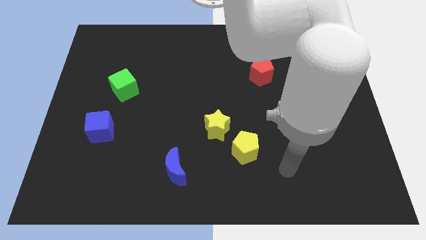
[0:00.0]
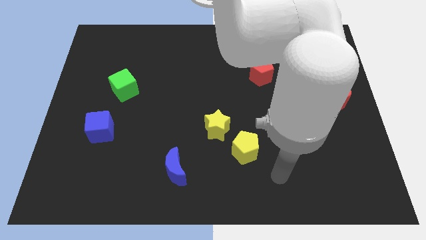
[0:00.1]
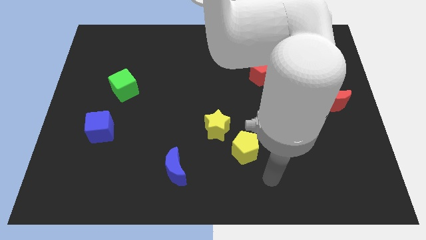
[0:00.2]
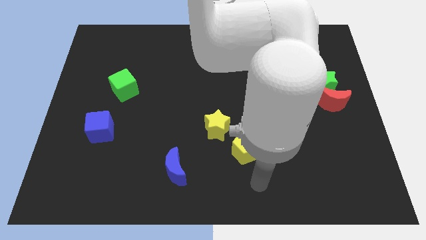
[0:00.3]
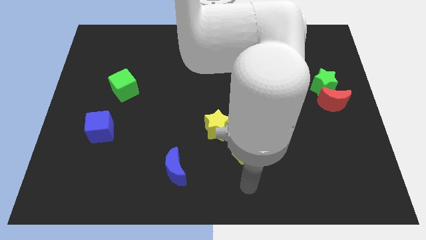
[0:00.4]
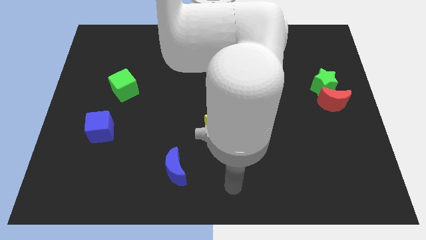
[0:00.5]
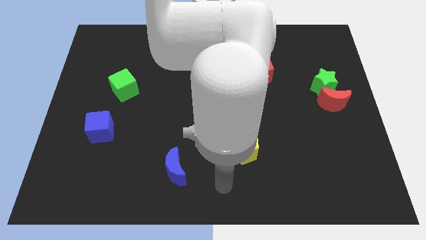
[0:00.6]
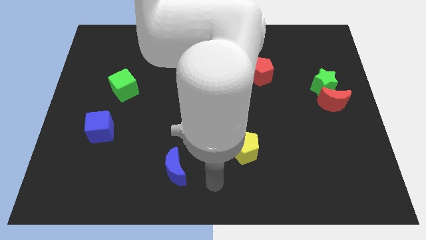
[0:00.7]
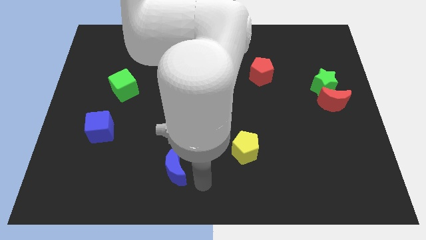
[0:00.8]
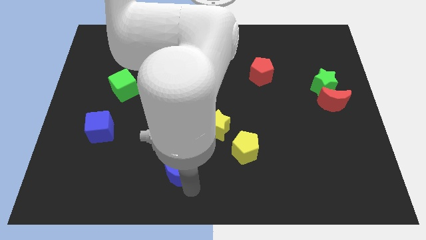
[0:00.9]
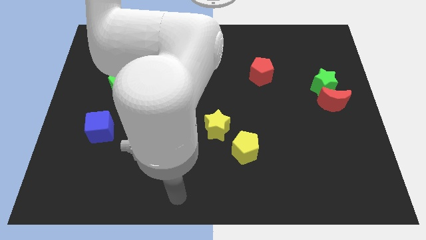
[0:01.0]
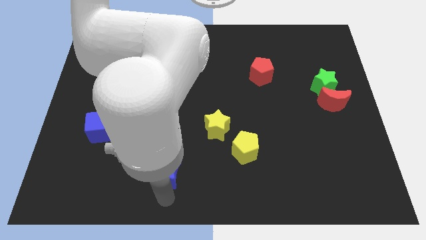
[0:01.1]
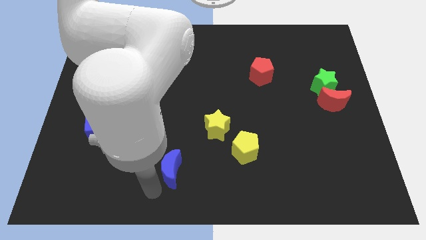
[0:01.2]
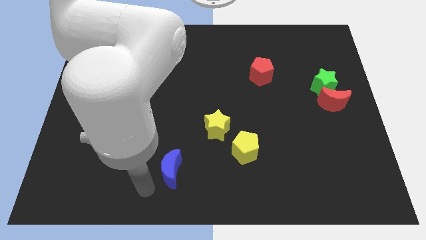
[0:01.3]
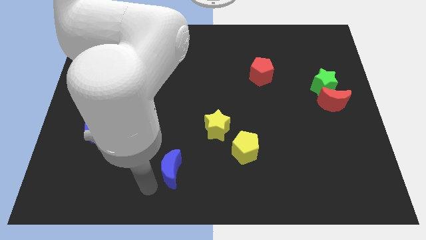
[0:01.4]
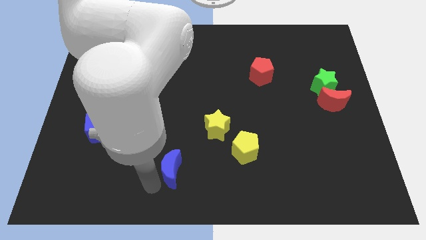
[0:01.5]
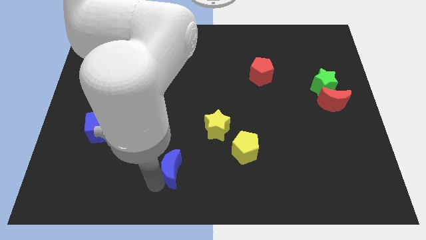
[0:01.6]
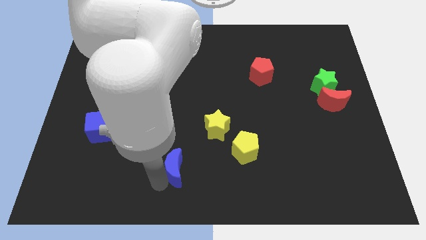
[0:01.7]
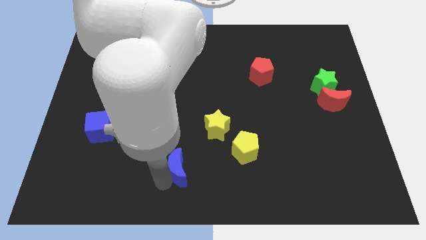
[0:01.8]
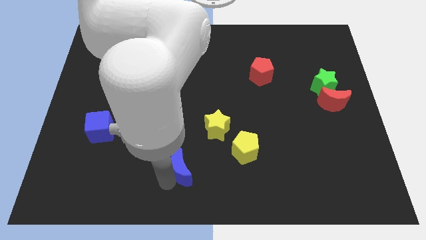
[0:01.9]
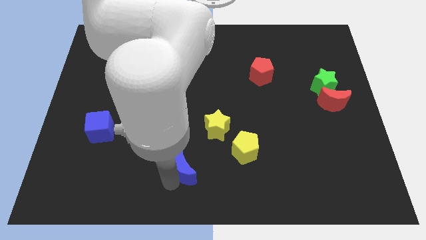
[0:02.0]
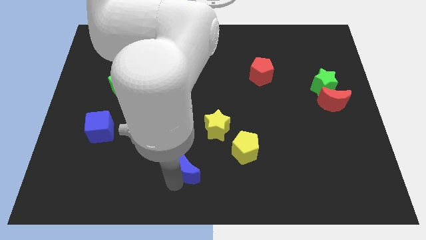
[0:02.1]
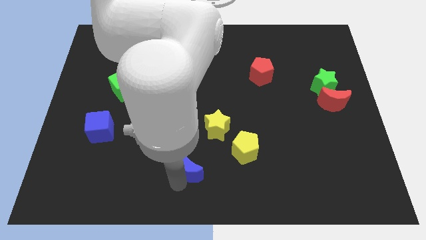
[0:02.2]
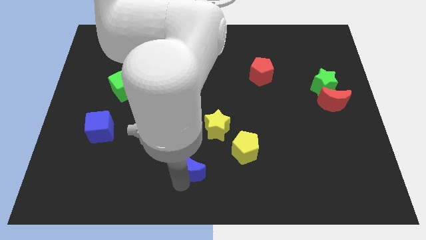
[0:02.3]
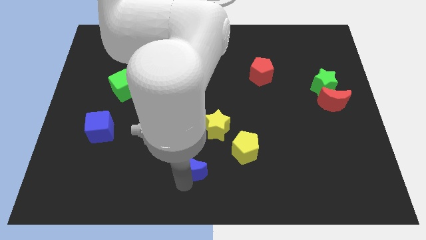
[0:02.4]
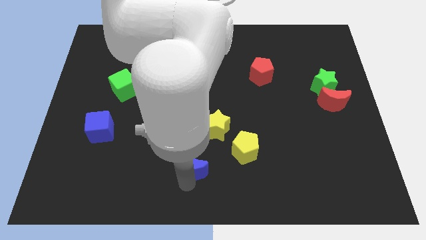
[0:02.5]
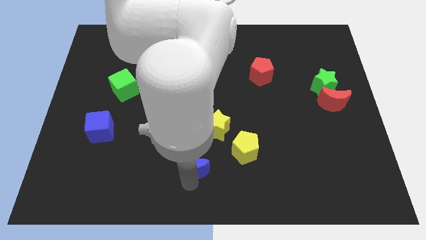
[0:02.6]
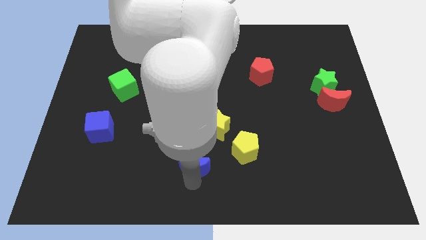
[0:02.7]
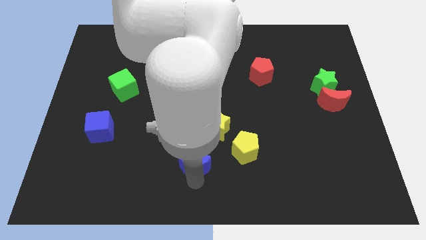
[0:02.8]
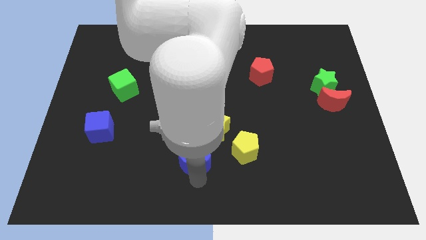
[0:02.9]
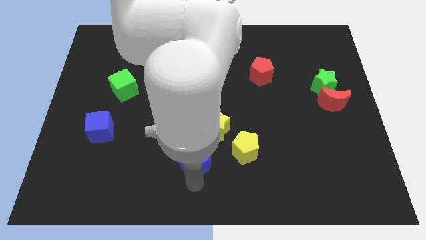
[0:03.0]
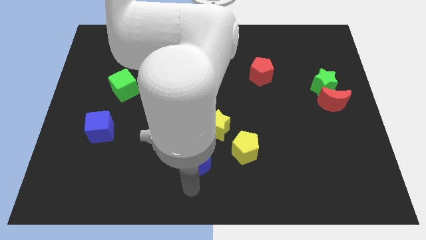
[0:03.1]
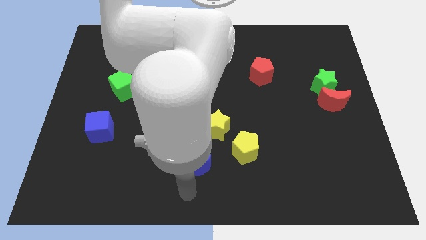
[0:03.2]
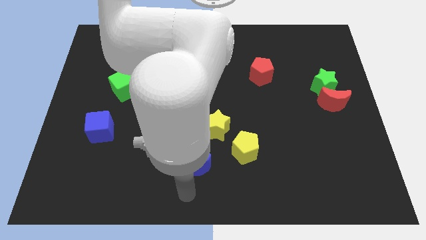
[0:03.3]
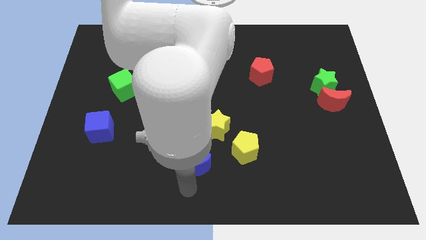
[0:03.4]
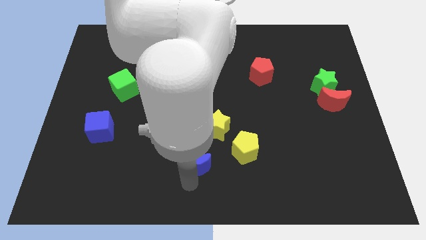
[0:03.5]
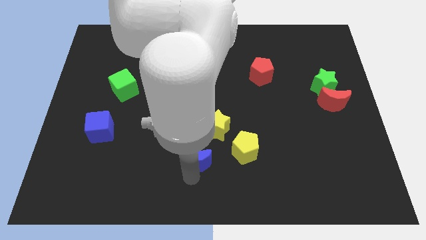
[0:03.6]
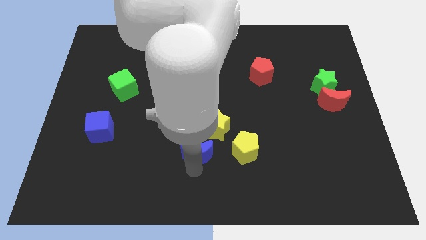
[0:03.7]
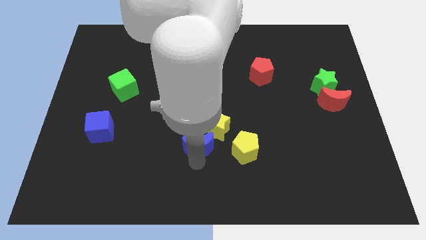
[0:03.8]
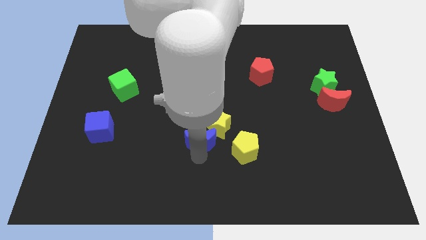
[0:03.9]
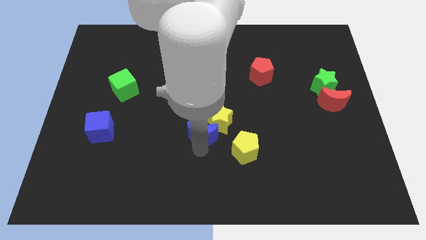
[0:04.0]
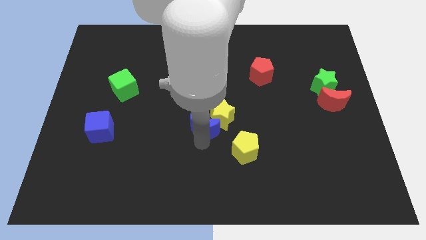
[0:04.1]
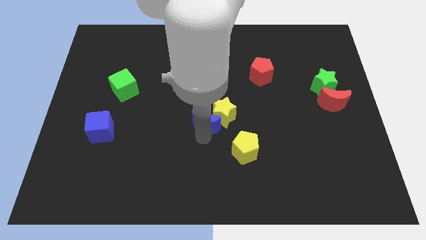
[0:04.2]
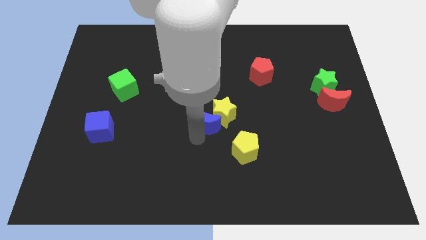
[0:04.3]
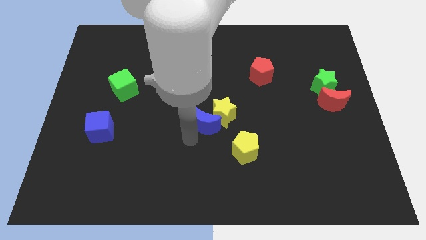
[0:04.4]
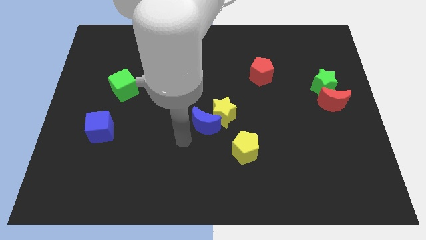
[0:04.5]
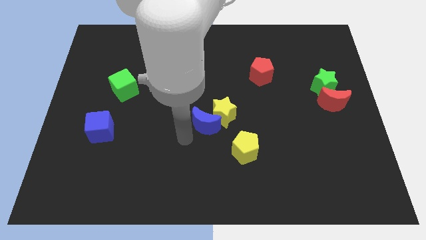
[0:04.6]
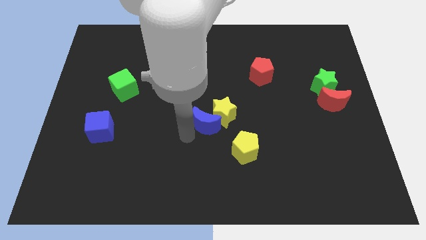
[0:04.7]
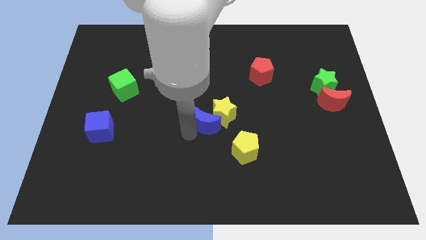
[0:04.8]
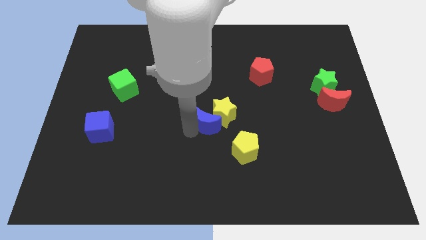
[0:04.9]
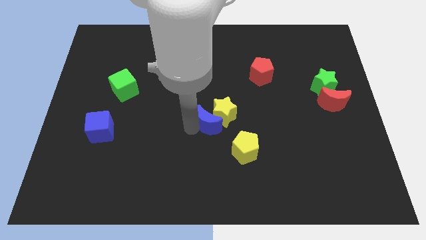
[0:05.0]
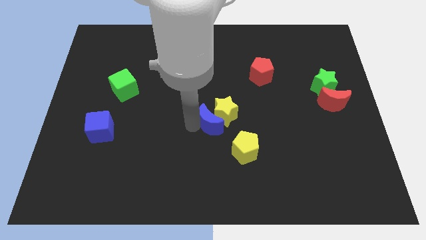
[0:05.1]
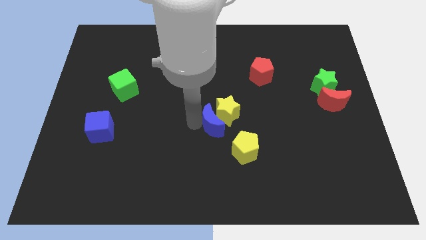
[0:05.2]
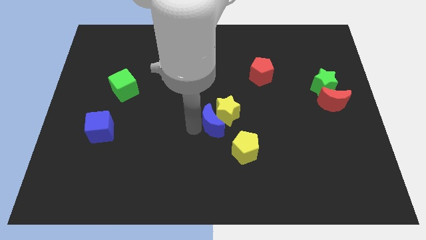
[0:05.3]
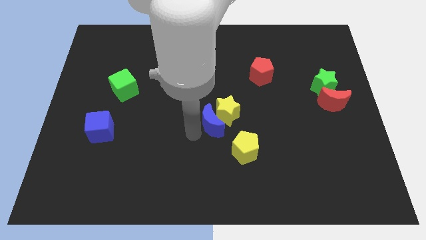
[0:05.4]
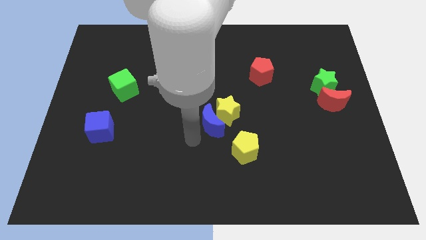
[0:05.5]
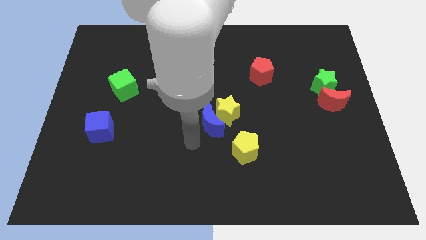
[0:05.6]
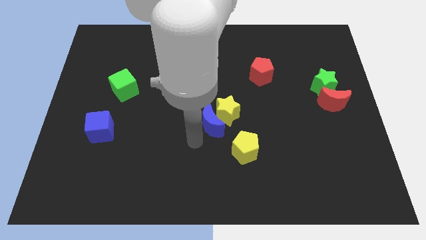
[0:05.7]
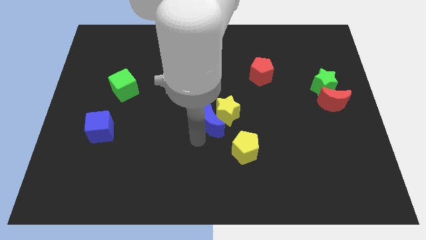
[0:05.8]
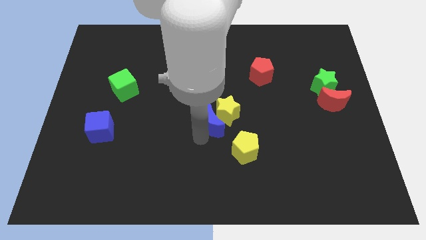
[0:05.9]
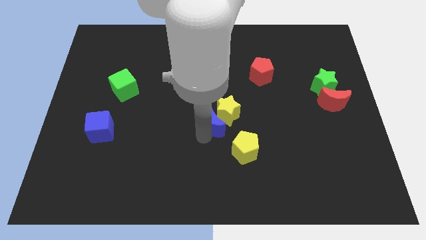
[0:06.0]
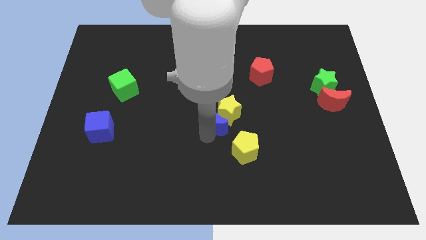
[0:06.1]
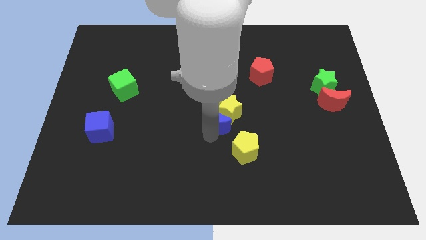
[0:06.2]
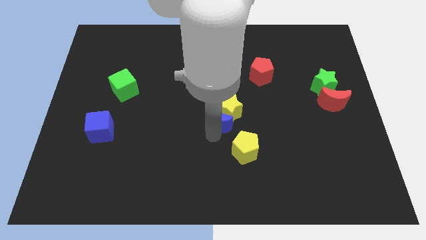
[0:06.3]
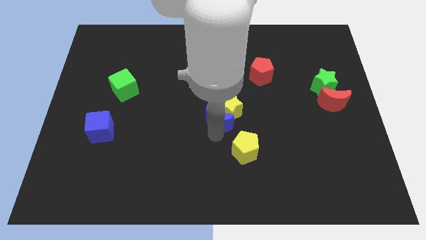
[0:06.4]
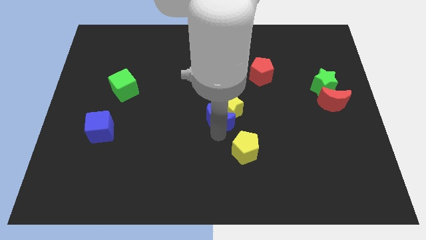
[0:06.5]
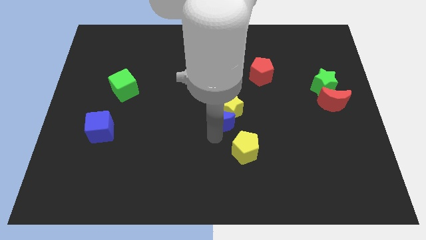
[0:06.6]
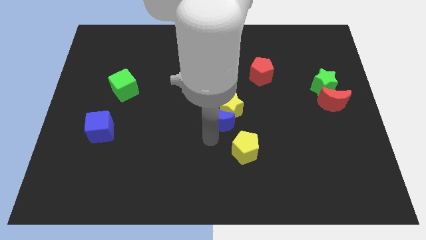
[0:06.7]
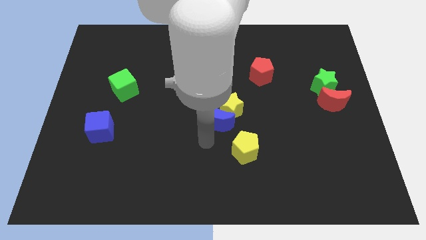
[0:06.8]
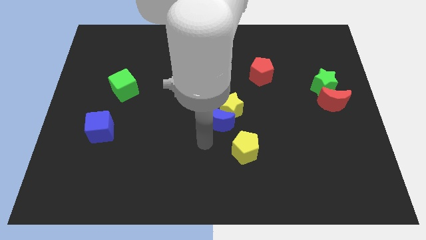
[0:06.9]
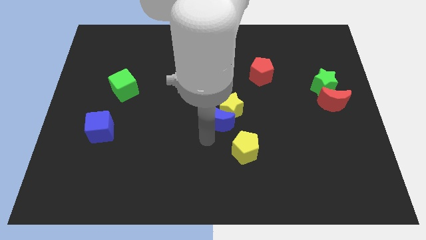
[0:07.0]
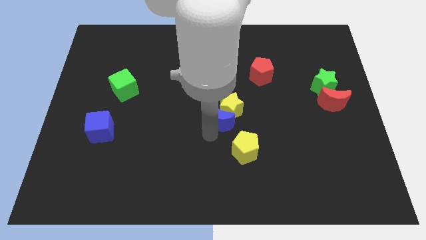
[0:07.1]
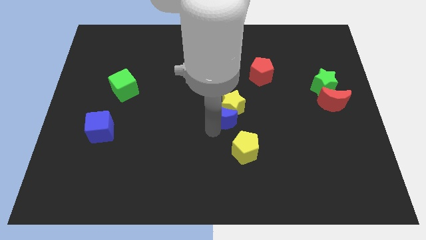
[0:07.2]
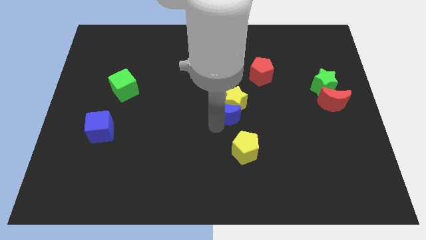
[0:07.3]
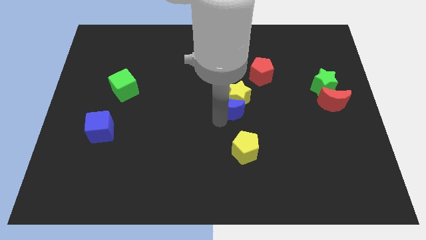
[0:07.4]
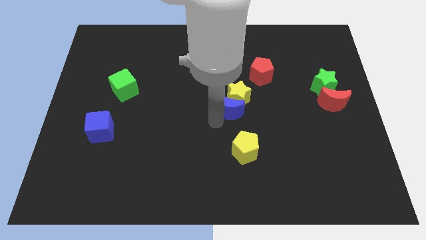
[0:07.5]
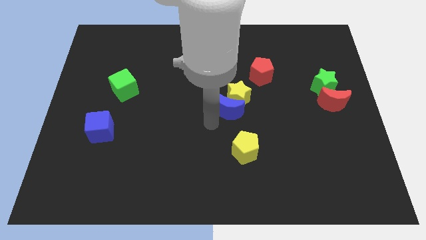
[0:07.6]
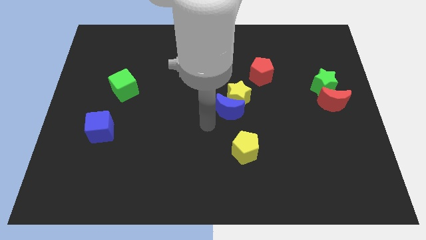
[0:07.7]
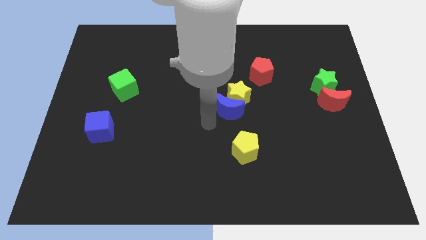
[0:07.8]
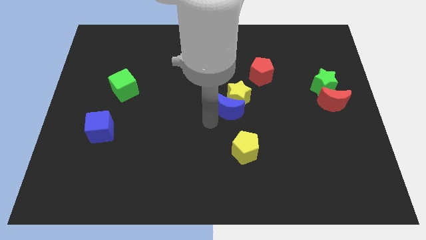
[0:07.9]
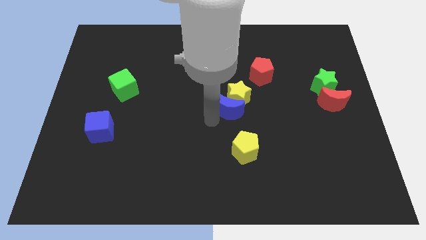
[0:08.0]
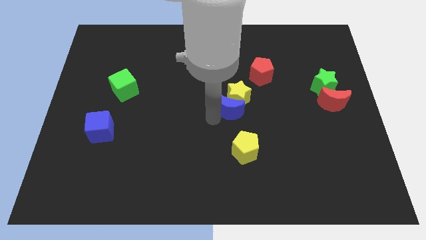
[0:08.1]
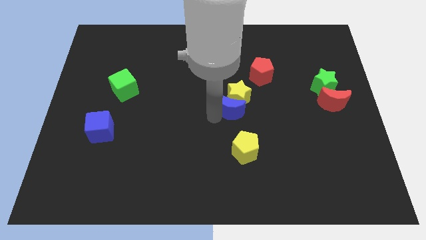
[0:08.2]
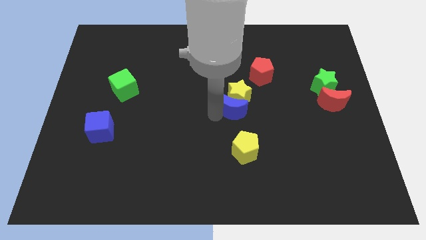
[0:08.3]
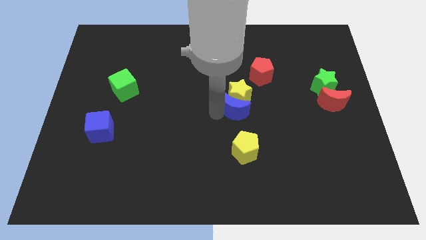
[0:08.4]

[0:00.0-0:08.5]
slide the blue moon upwards and then right
